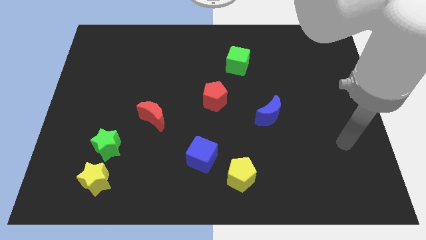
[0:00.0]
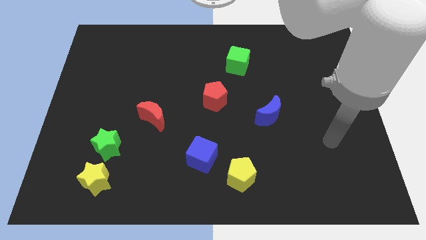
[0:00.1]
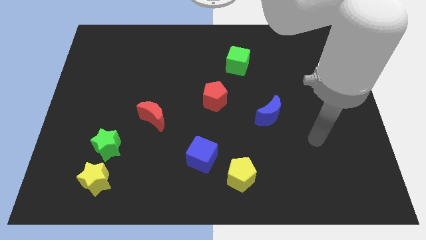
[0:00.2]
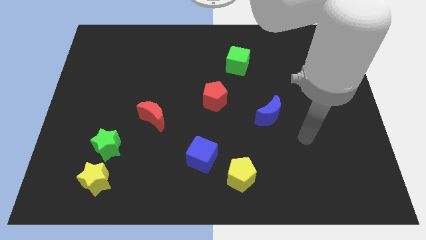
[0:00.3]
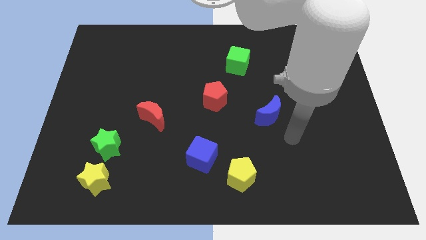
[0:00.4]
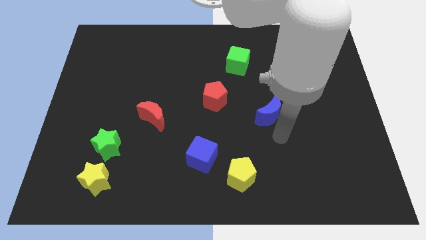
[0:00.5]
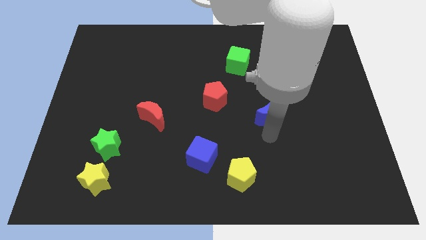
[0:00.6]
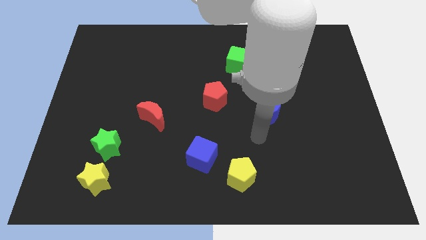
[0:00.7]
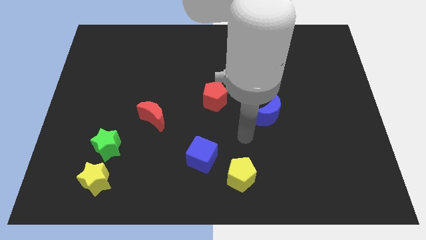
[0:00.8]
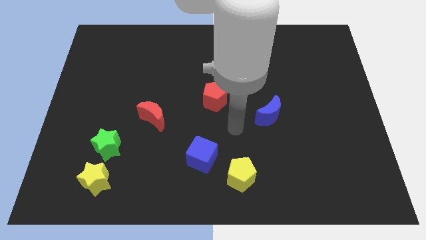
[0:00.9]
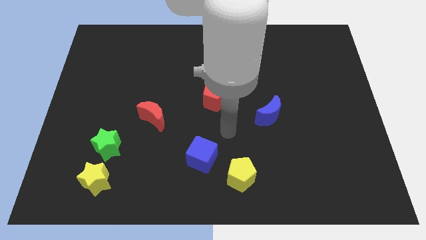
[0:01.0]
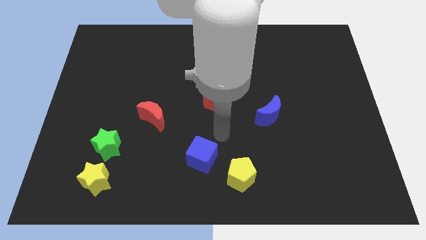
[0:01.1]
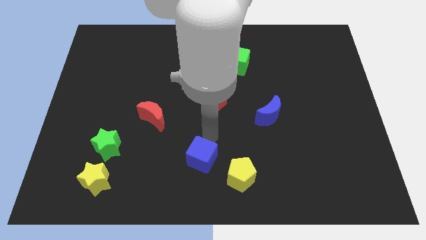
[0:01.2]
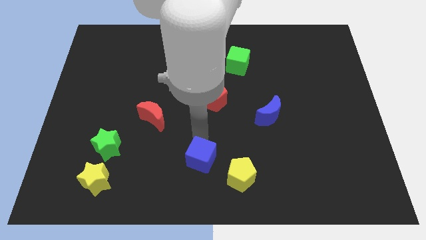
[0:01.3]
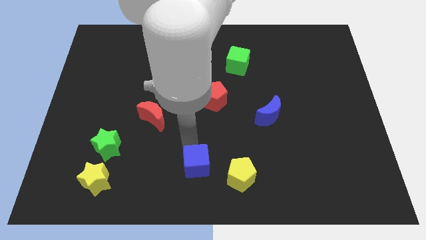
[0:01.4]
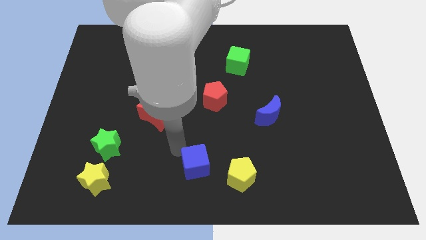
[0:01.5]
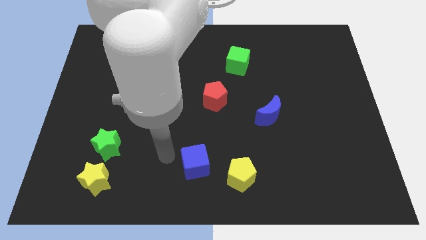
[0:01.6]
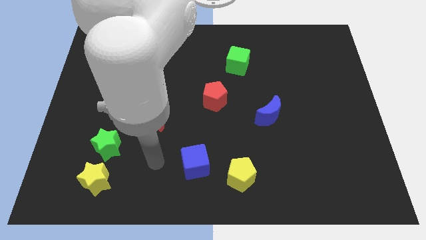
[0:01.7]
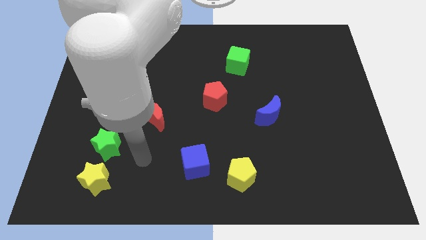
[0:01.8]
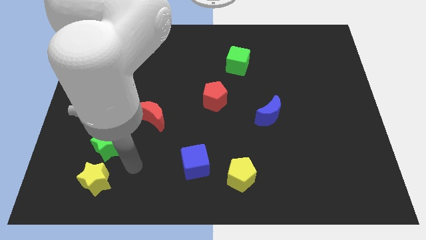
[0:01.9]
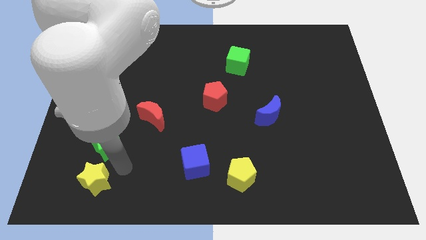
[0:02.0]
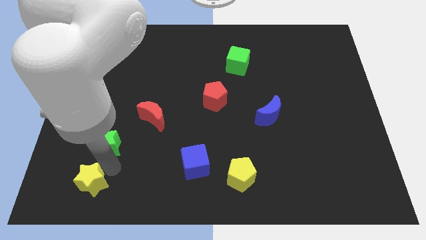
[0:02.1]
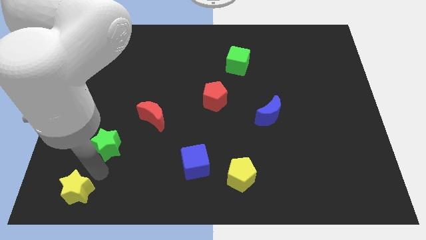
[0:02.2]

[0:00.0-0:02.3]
move the green star away from the yellow star

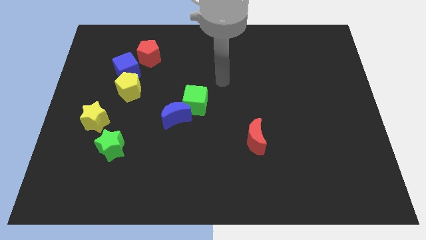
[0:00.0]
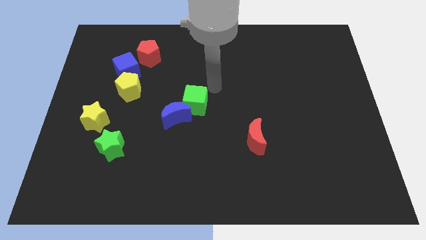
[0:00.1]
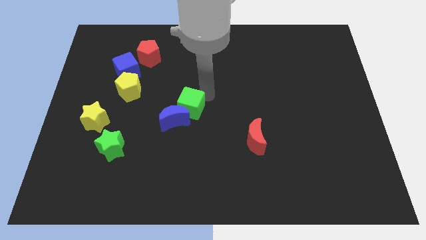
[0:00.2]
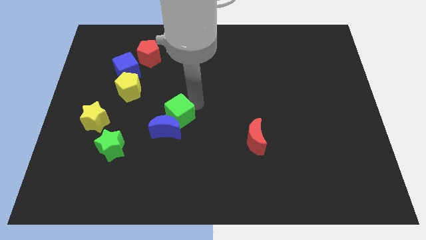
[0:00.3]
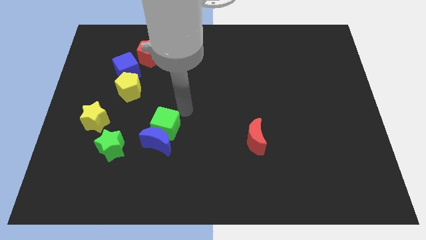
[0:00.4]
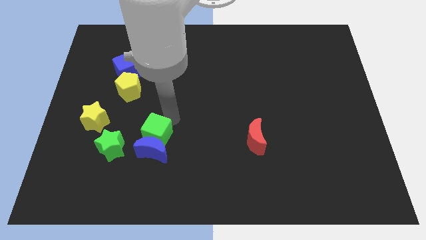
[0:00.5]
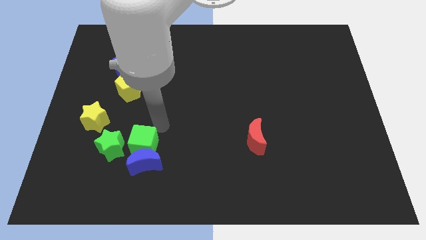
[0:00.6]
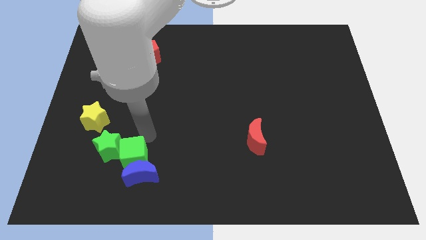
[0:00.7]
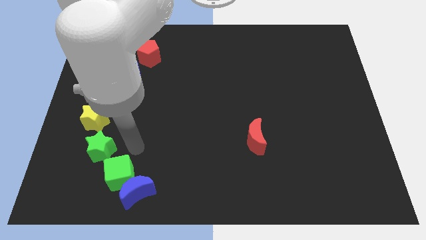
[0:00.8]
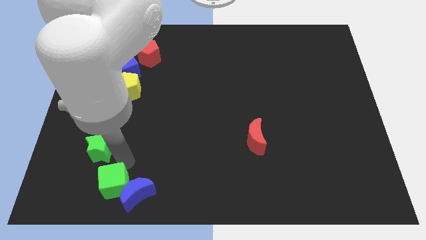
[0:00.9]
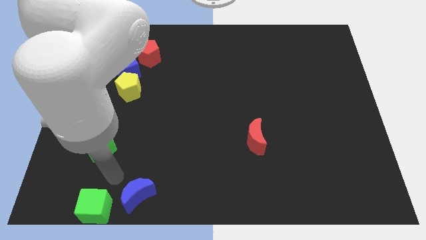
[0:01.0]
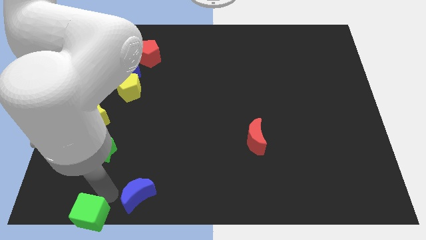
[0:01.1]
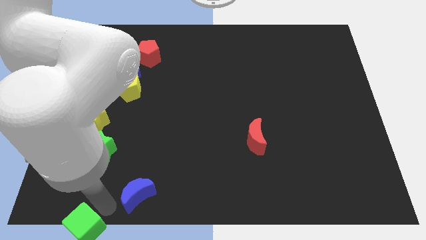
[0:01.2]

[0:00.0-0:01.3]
pull the blue moon apart from the green cube

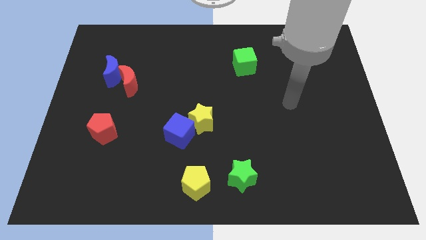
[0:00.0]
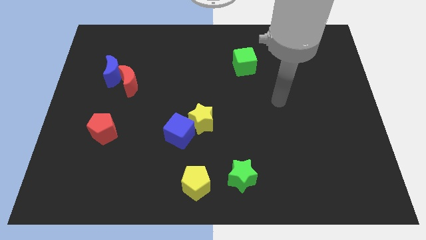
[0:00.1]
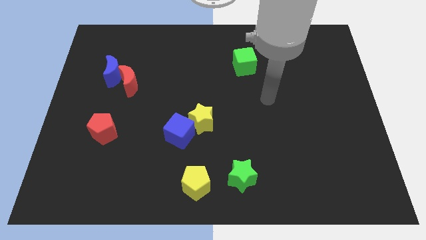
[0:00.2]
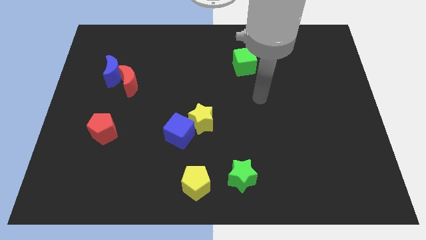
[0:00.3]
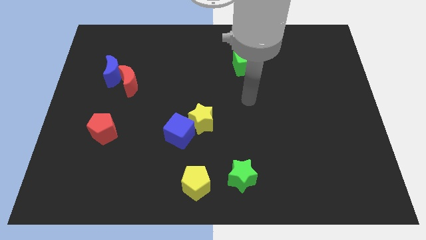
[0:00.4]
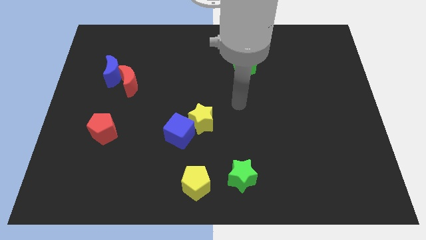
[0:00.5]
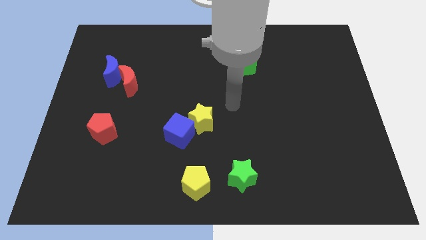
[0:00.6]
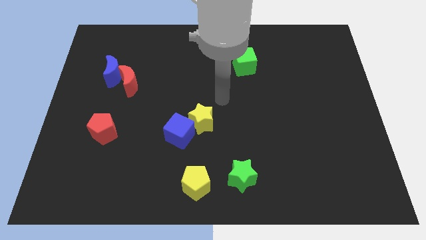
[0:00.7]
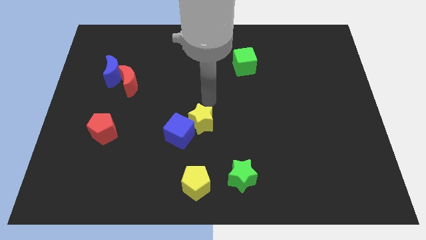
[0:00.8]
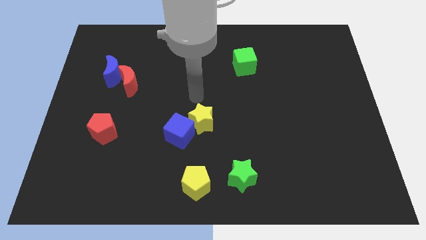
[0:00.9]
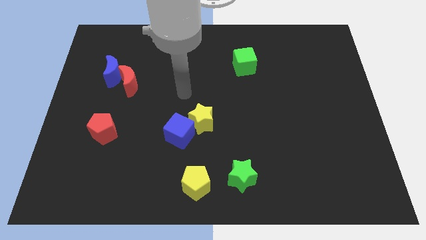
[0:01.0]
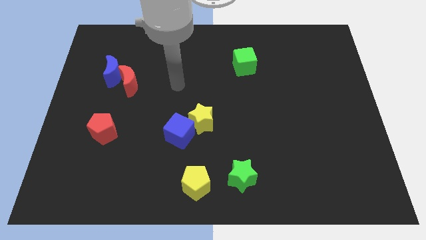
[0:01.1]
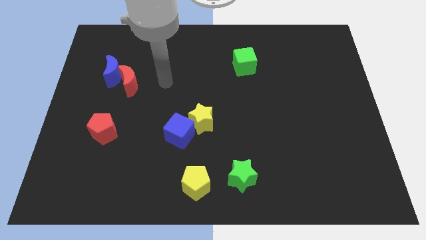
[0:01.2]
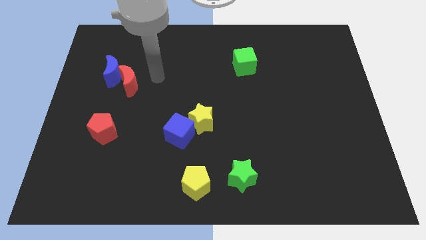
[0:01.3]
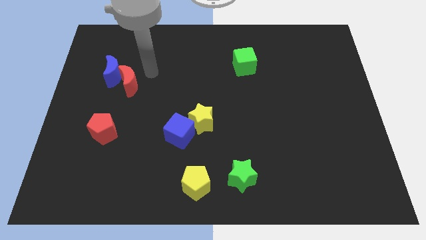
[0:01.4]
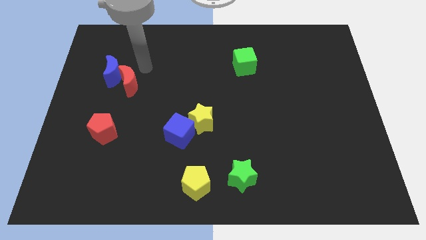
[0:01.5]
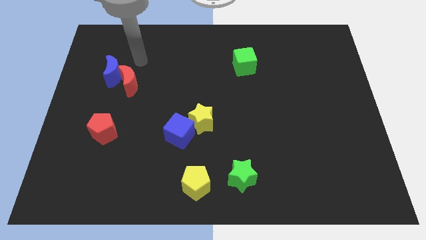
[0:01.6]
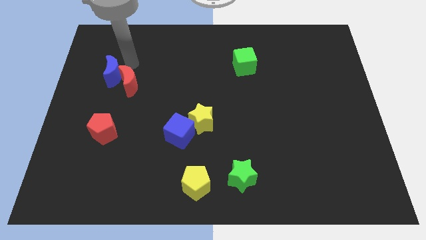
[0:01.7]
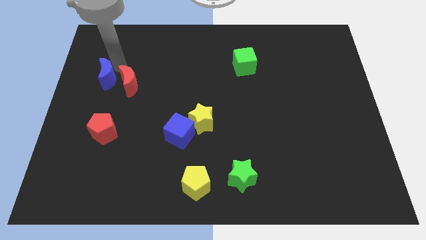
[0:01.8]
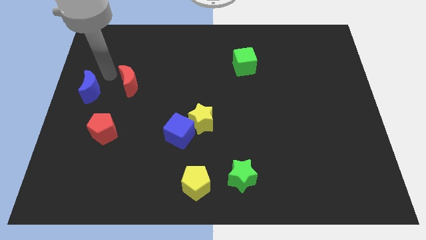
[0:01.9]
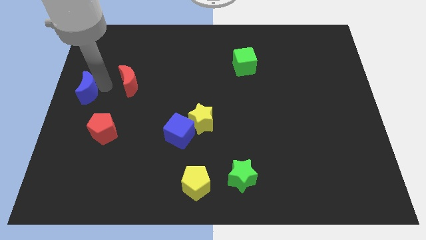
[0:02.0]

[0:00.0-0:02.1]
move the red moon away from the blue moon

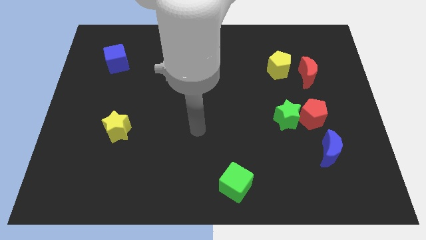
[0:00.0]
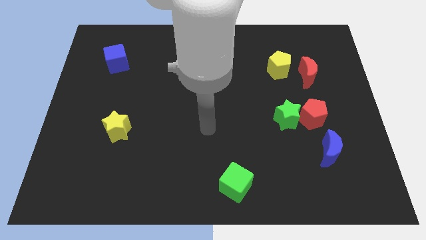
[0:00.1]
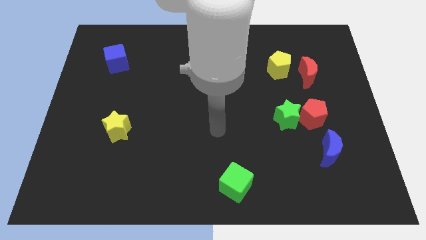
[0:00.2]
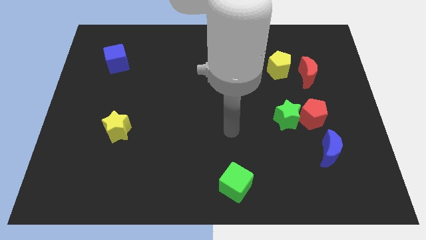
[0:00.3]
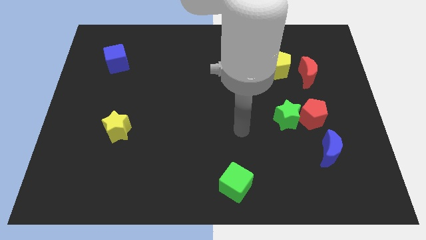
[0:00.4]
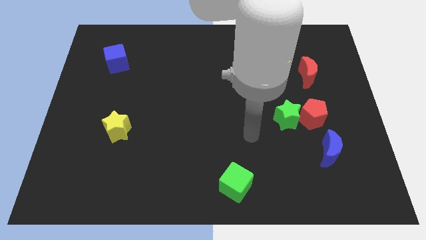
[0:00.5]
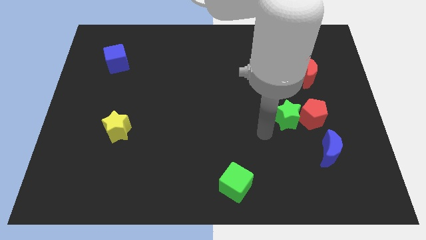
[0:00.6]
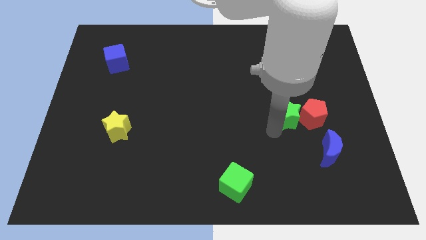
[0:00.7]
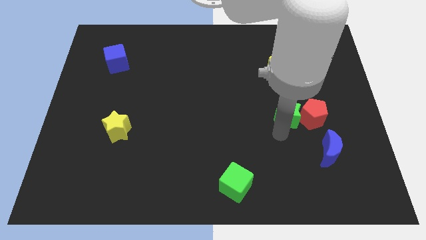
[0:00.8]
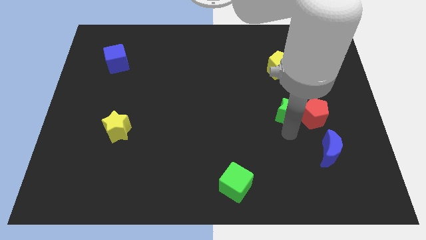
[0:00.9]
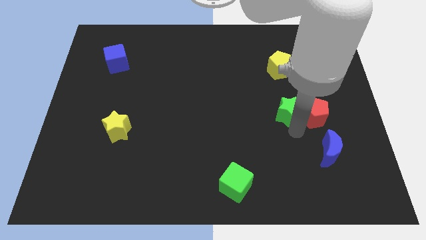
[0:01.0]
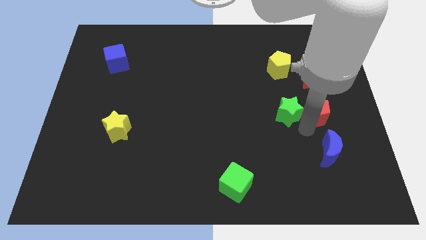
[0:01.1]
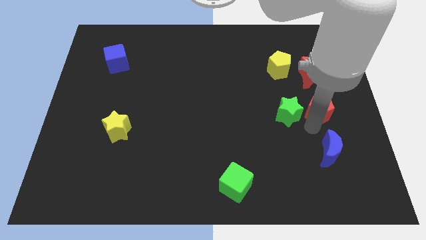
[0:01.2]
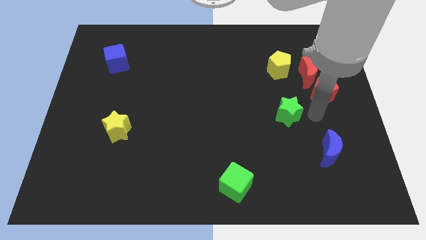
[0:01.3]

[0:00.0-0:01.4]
separate the green star from the red pentagon

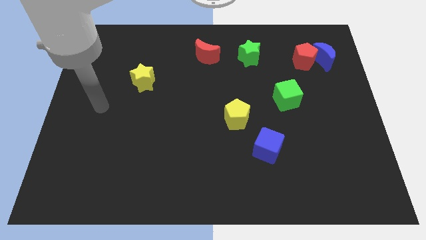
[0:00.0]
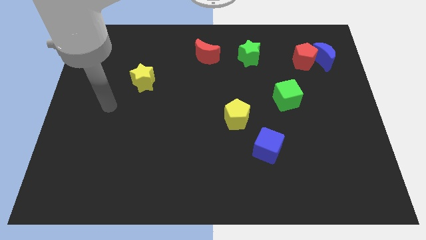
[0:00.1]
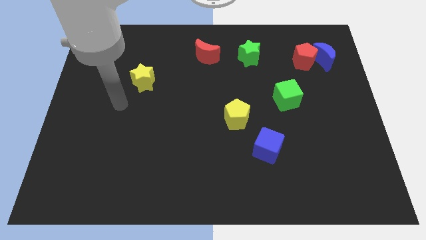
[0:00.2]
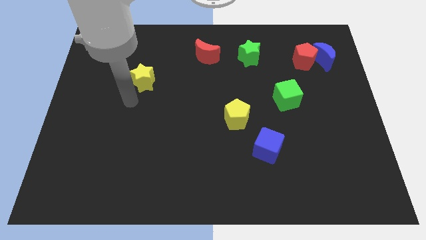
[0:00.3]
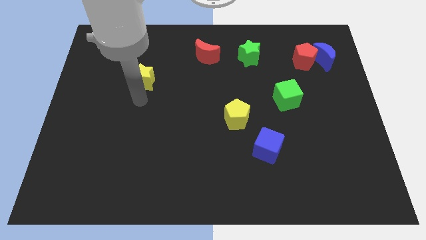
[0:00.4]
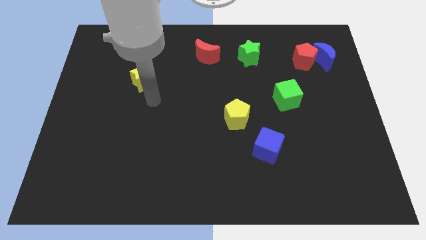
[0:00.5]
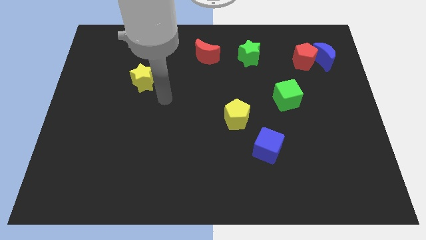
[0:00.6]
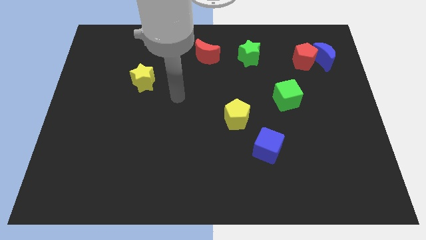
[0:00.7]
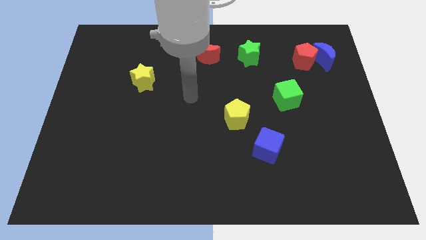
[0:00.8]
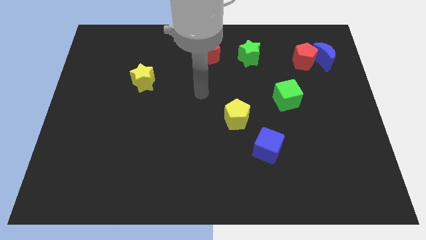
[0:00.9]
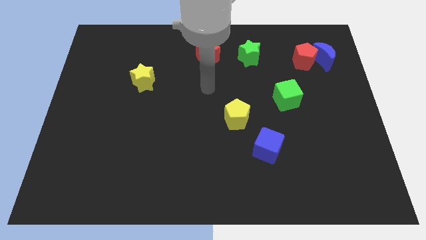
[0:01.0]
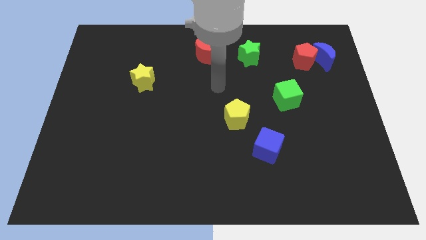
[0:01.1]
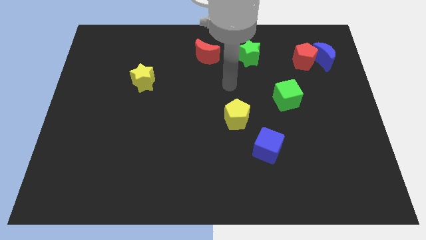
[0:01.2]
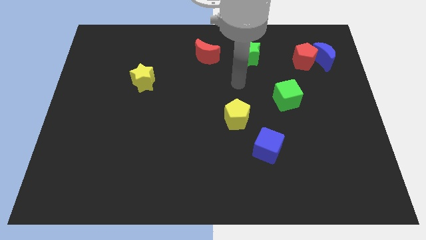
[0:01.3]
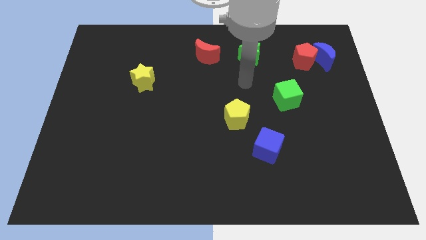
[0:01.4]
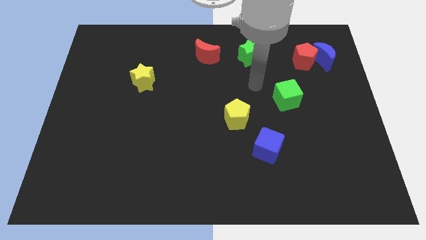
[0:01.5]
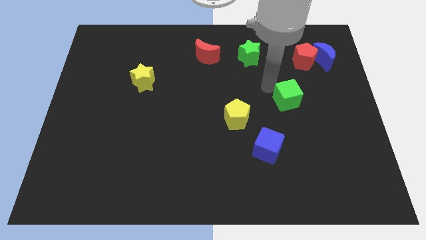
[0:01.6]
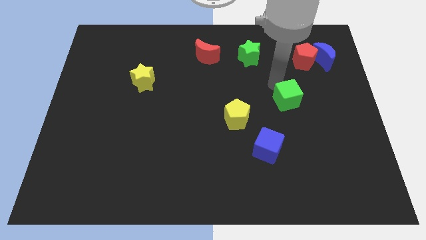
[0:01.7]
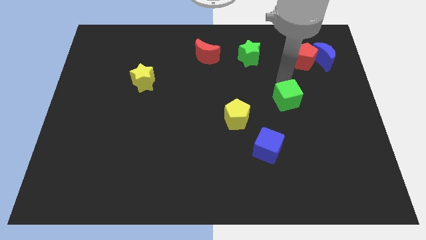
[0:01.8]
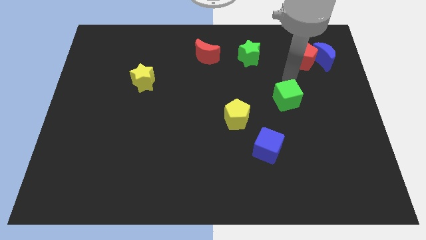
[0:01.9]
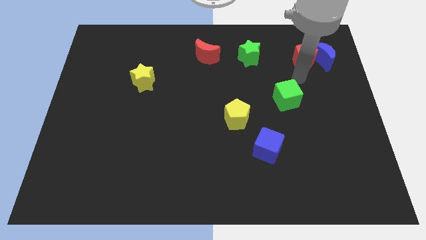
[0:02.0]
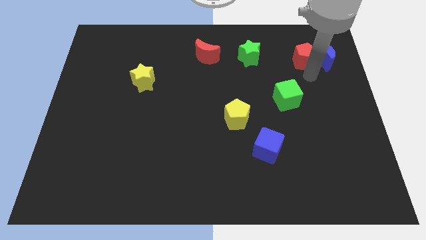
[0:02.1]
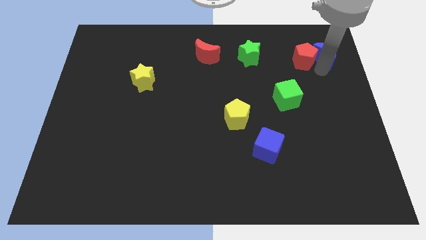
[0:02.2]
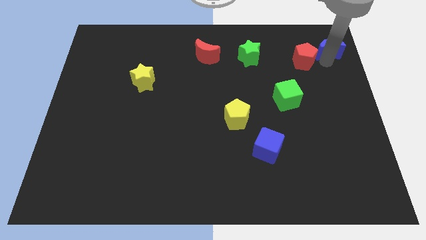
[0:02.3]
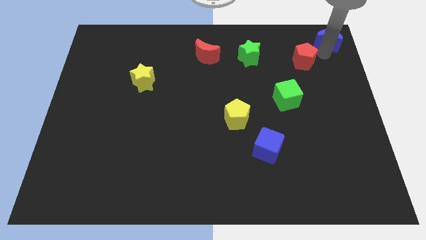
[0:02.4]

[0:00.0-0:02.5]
pull the red pentagon apart from the blue moon
